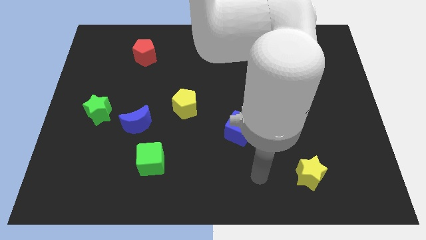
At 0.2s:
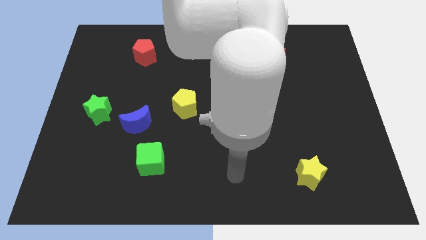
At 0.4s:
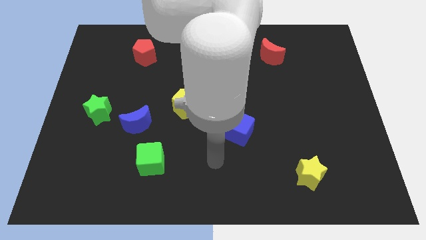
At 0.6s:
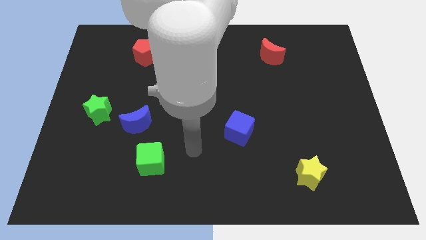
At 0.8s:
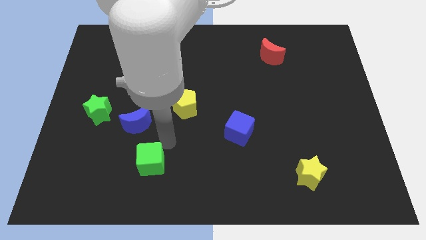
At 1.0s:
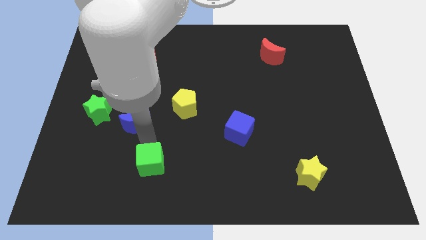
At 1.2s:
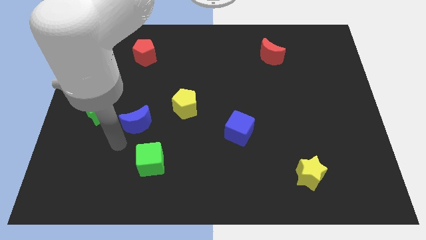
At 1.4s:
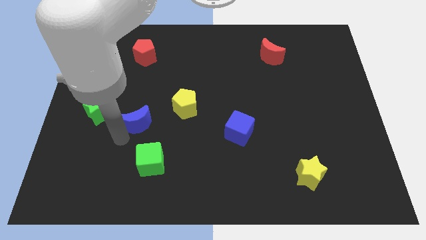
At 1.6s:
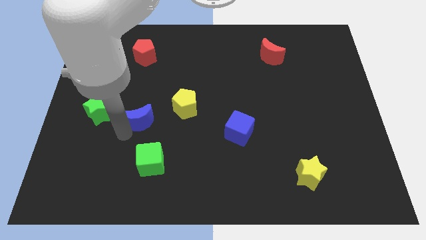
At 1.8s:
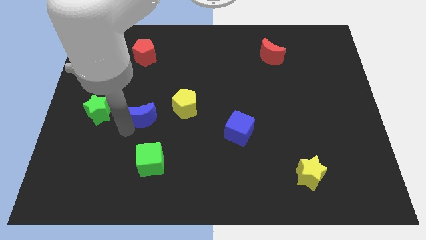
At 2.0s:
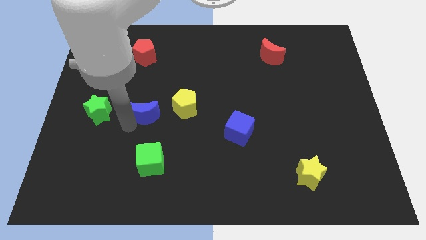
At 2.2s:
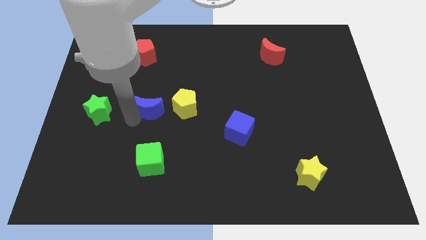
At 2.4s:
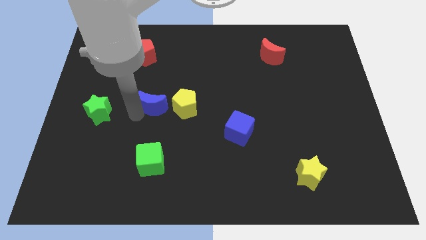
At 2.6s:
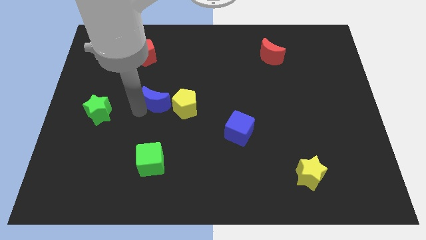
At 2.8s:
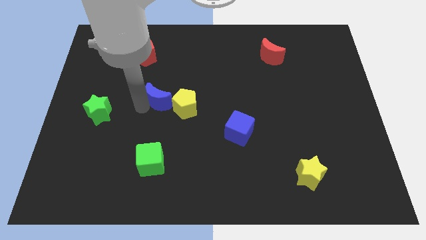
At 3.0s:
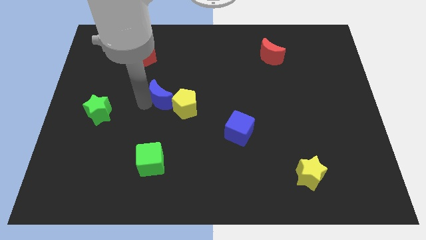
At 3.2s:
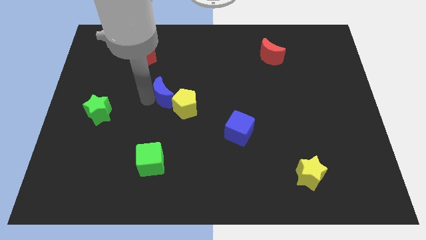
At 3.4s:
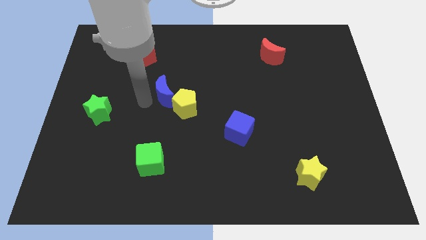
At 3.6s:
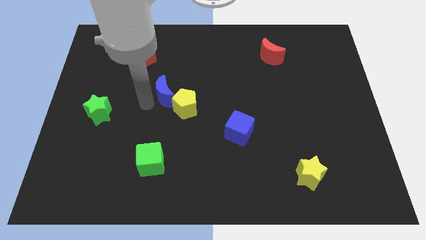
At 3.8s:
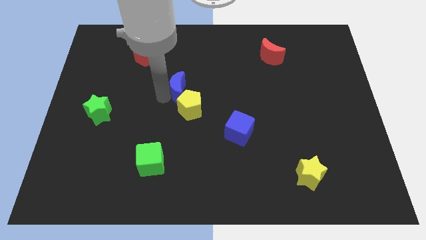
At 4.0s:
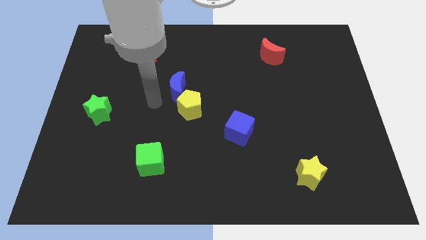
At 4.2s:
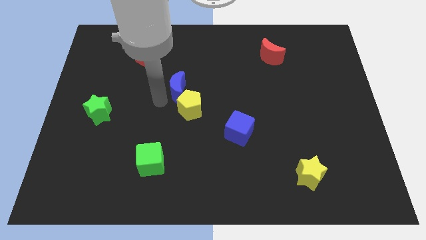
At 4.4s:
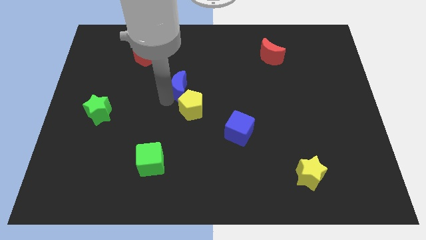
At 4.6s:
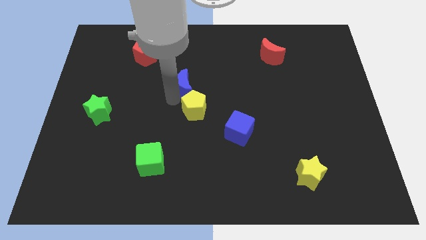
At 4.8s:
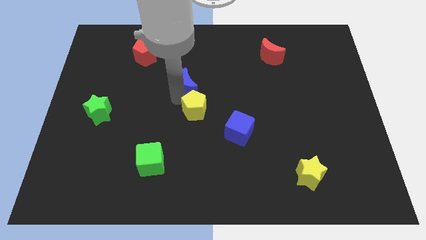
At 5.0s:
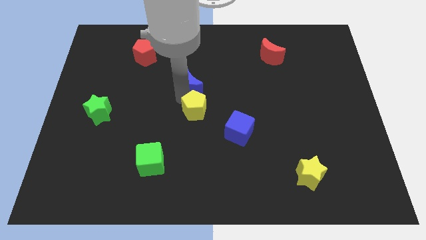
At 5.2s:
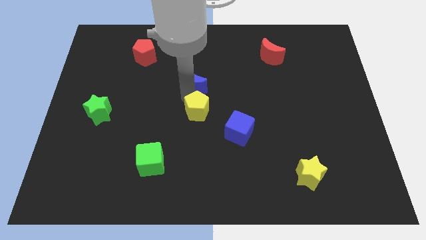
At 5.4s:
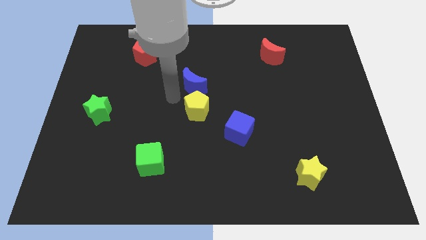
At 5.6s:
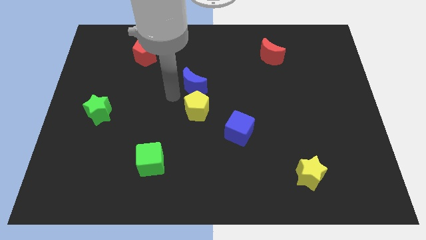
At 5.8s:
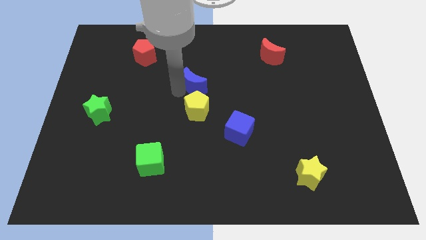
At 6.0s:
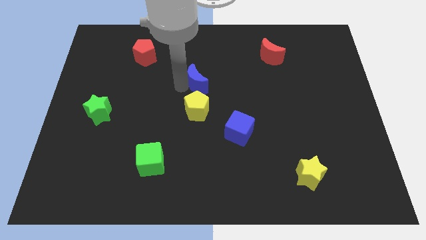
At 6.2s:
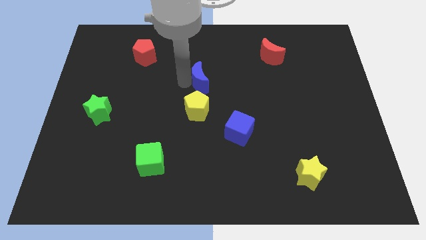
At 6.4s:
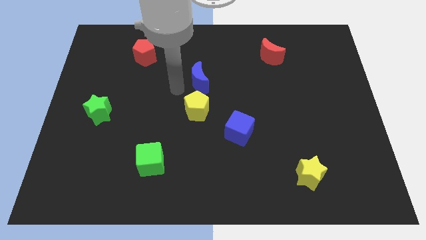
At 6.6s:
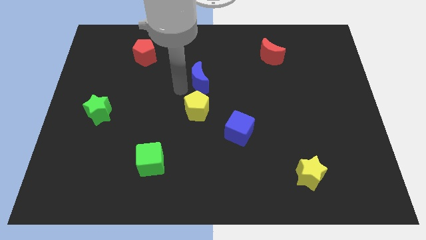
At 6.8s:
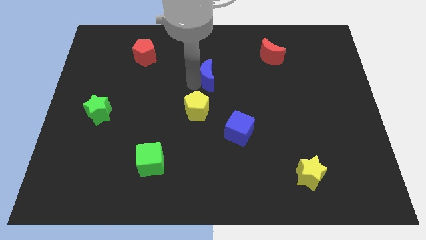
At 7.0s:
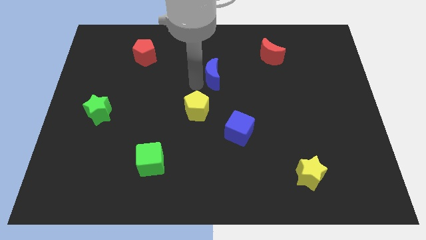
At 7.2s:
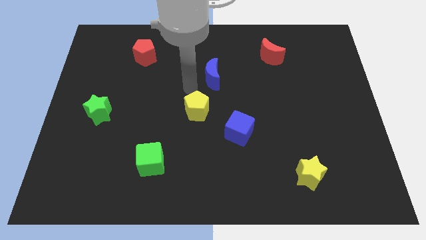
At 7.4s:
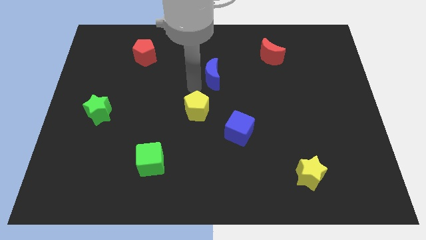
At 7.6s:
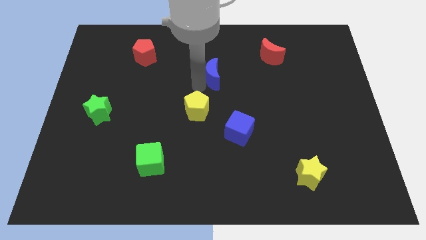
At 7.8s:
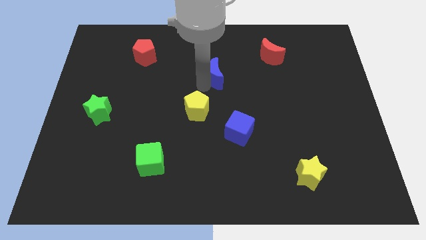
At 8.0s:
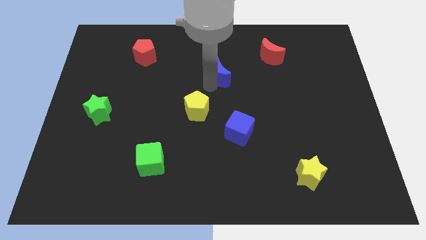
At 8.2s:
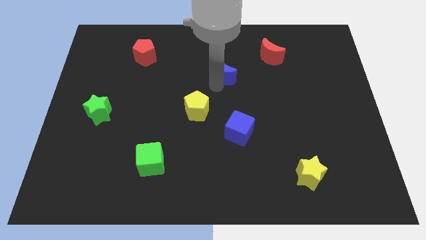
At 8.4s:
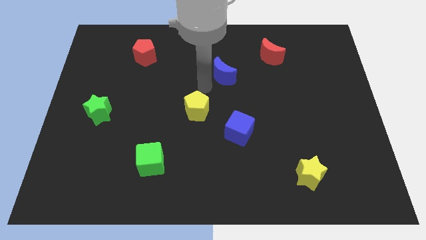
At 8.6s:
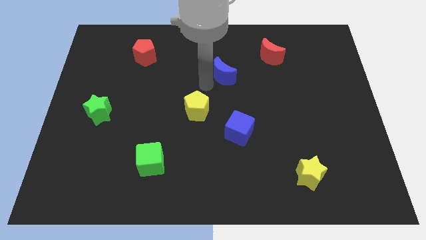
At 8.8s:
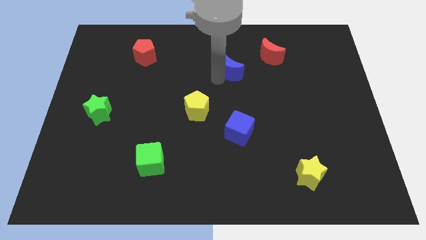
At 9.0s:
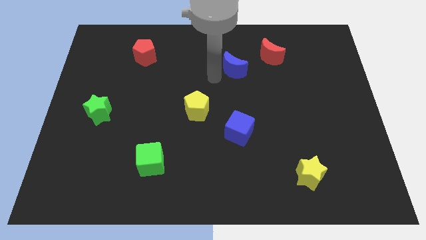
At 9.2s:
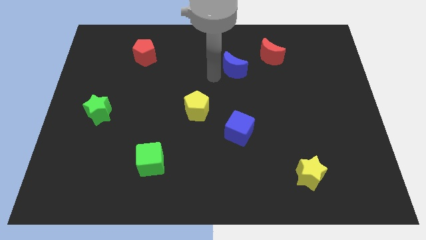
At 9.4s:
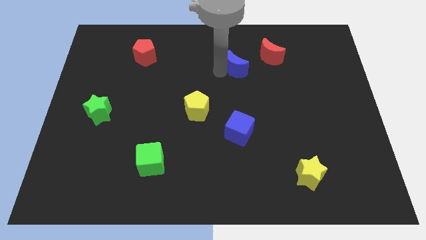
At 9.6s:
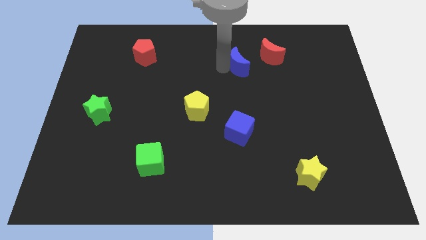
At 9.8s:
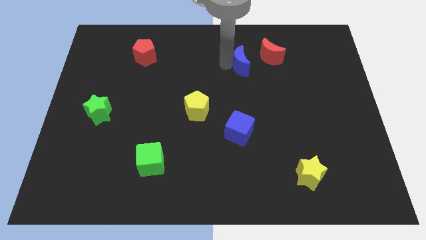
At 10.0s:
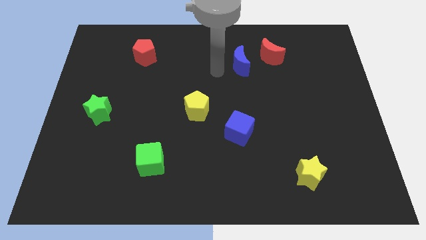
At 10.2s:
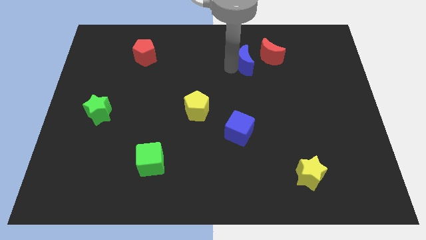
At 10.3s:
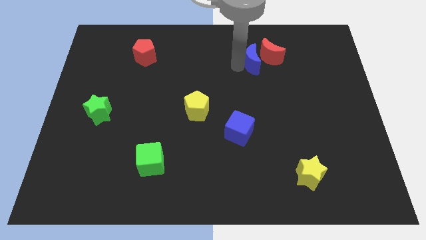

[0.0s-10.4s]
push the blue moon next to the red moon

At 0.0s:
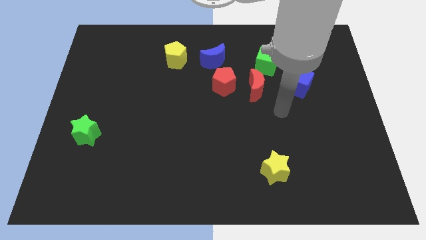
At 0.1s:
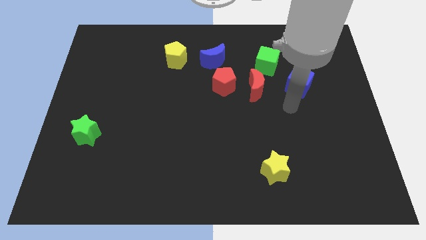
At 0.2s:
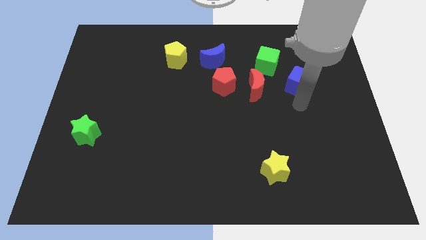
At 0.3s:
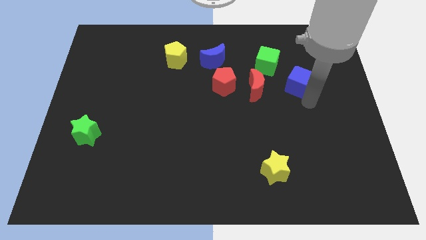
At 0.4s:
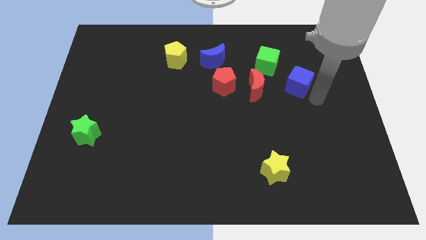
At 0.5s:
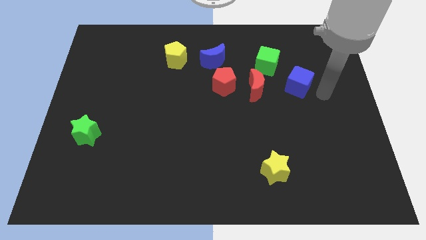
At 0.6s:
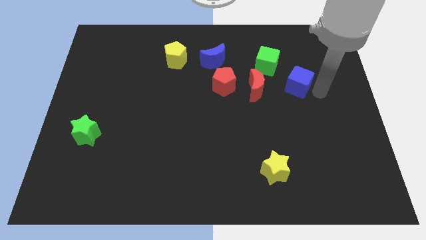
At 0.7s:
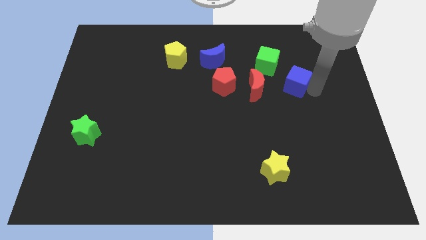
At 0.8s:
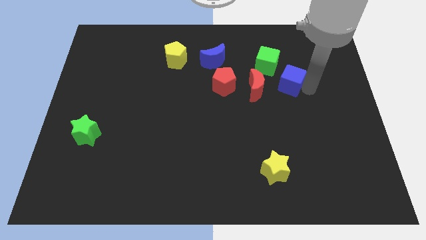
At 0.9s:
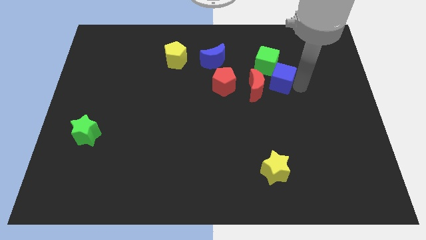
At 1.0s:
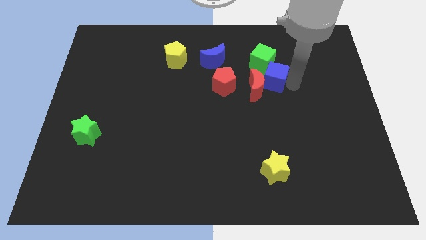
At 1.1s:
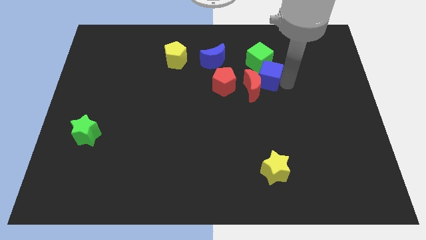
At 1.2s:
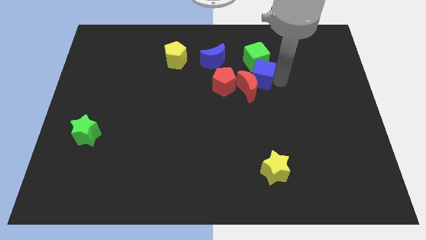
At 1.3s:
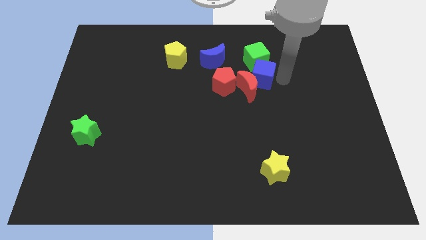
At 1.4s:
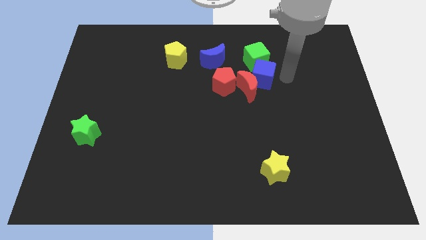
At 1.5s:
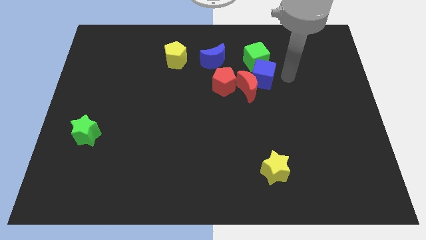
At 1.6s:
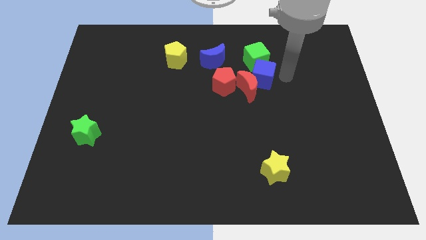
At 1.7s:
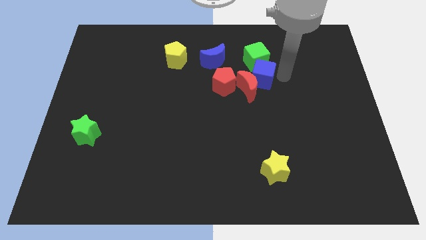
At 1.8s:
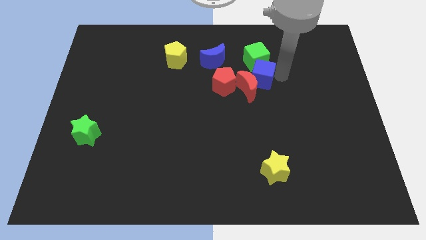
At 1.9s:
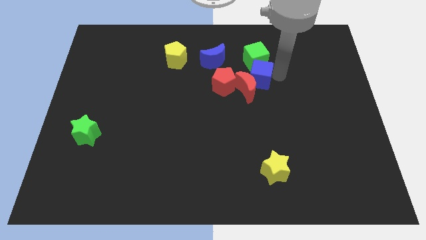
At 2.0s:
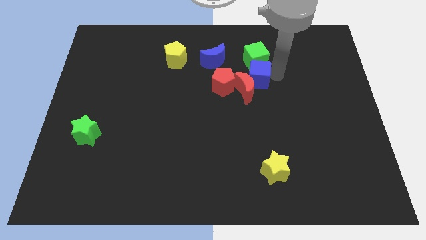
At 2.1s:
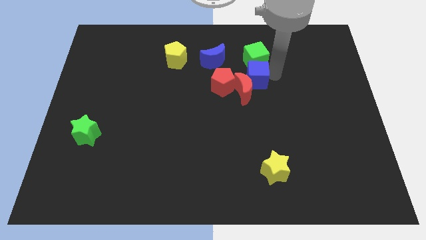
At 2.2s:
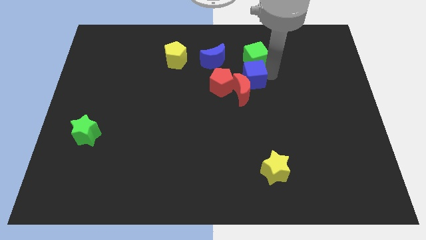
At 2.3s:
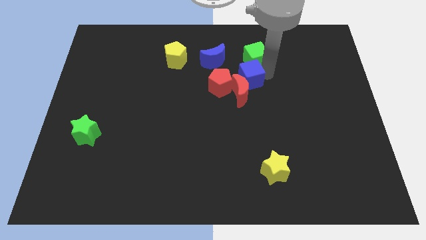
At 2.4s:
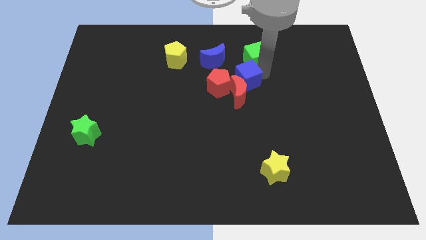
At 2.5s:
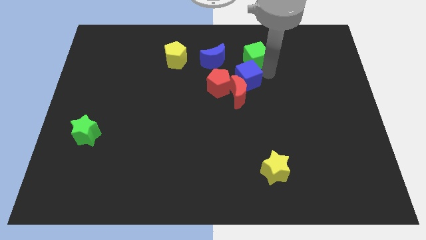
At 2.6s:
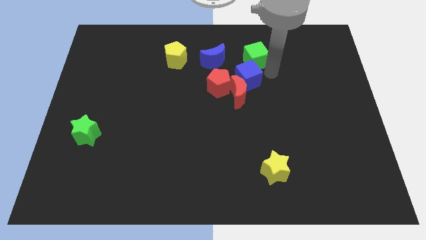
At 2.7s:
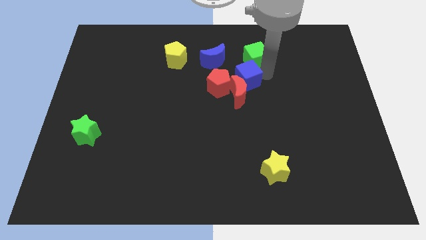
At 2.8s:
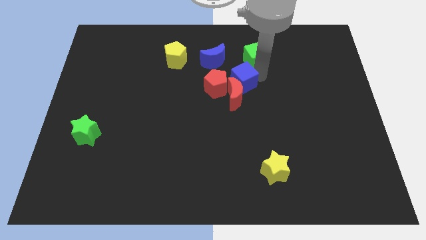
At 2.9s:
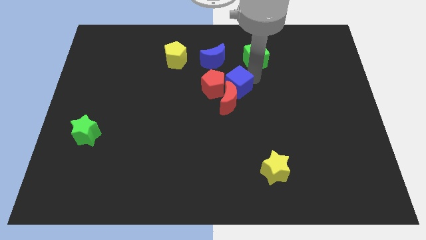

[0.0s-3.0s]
put the blue cube towards the red pentagon
